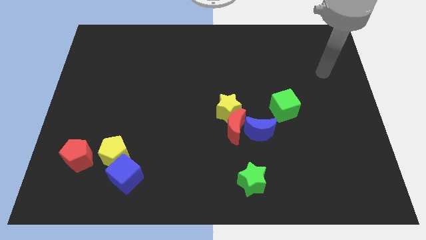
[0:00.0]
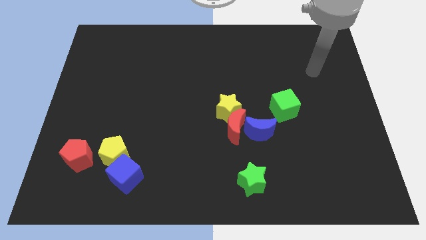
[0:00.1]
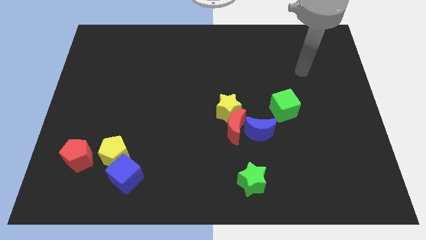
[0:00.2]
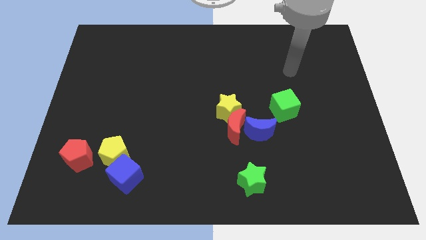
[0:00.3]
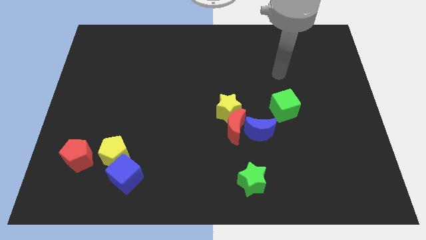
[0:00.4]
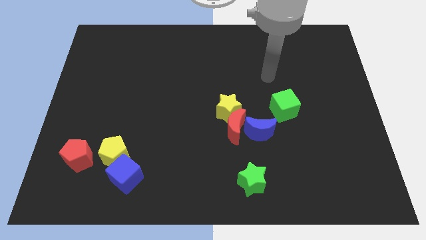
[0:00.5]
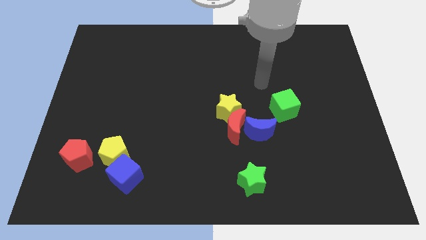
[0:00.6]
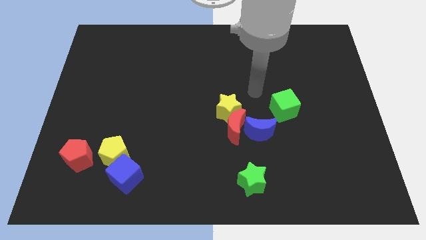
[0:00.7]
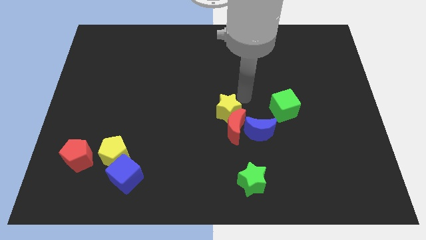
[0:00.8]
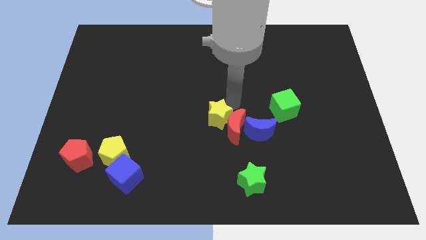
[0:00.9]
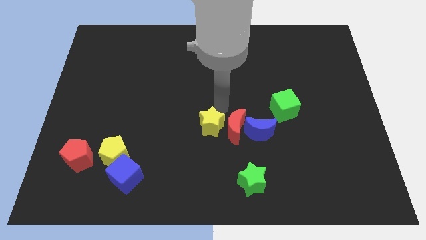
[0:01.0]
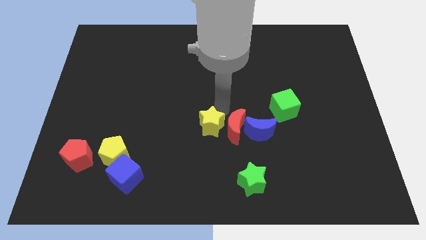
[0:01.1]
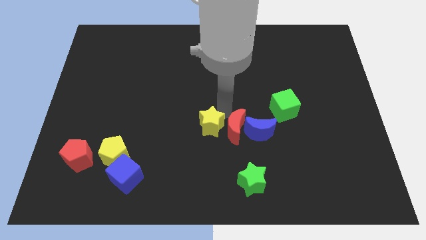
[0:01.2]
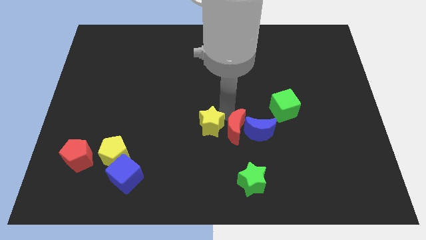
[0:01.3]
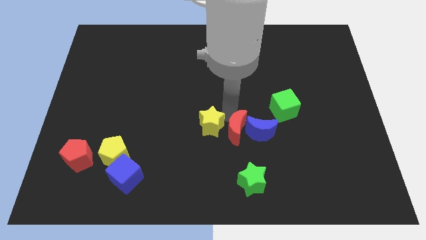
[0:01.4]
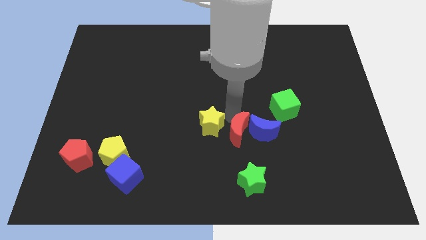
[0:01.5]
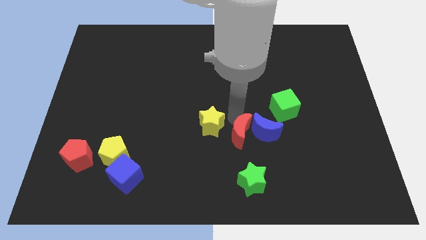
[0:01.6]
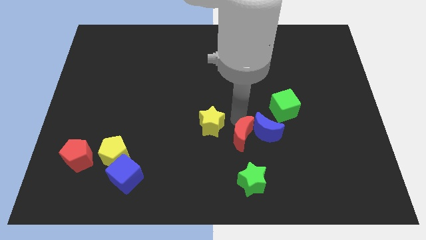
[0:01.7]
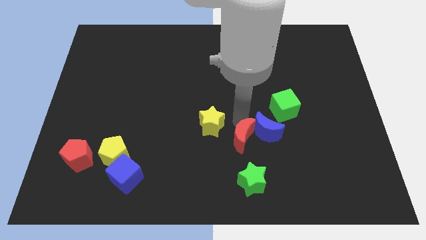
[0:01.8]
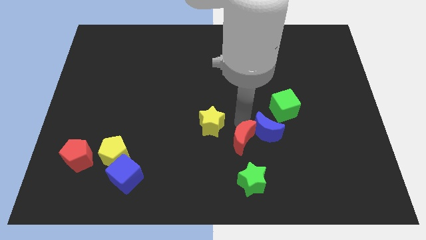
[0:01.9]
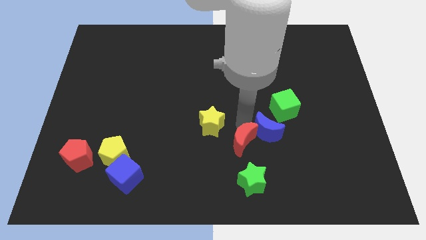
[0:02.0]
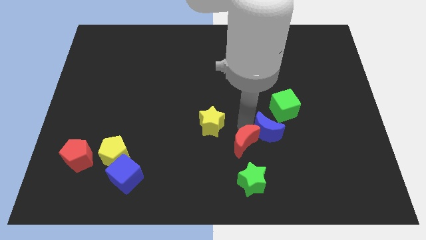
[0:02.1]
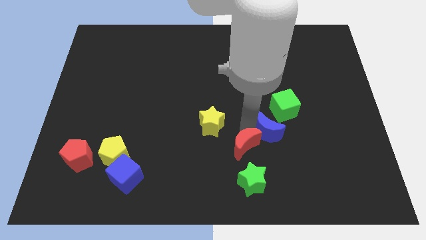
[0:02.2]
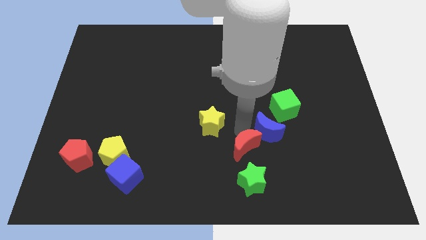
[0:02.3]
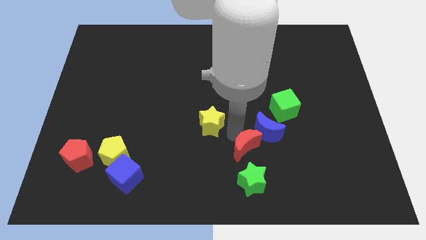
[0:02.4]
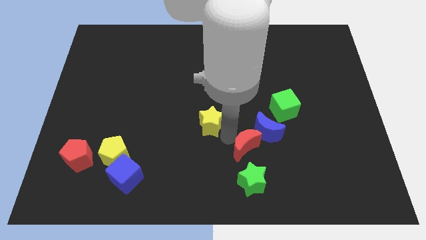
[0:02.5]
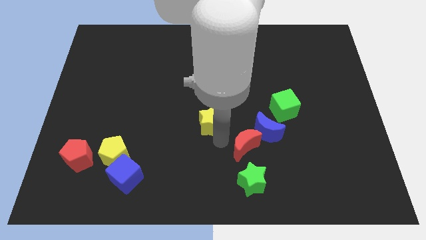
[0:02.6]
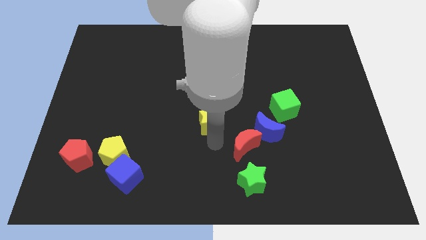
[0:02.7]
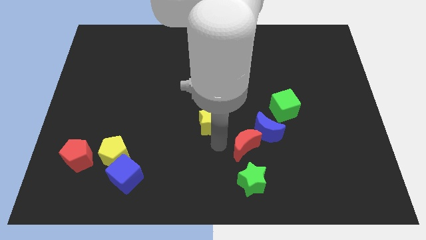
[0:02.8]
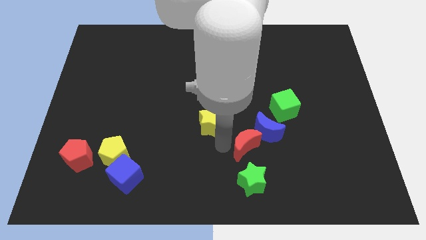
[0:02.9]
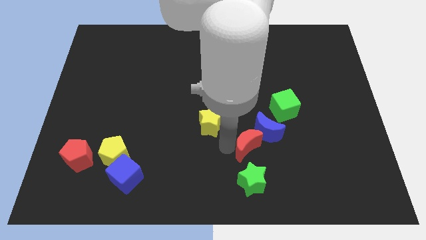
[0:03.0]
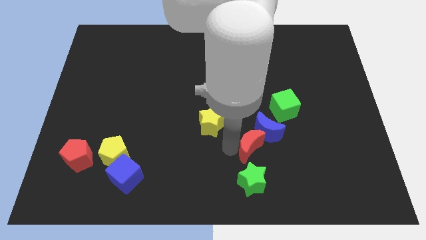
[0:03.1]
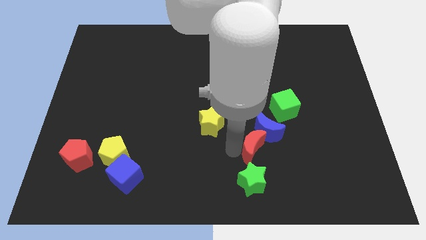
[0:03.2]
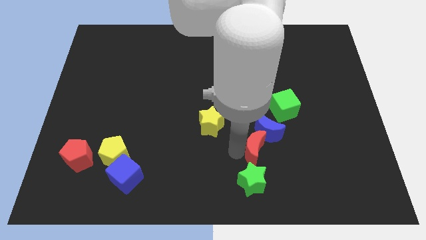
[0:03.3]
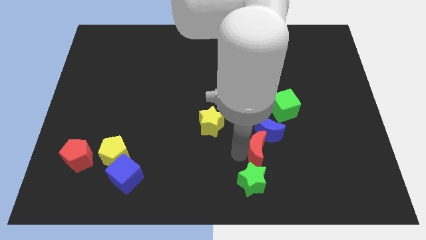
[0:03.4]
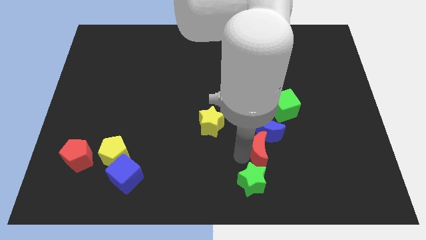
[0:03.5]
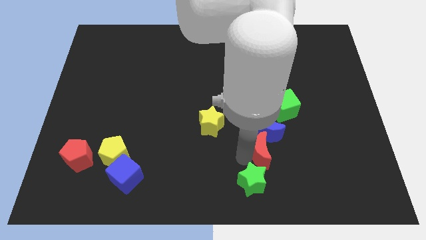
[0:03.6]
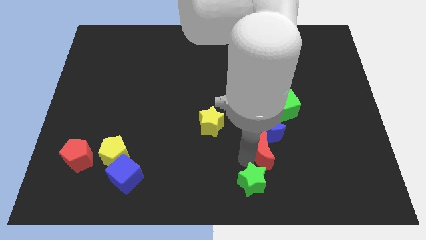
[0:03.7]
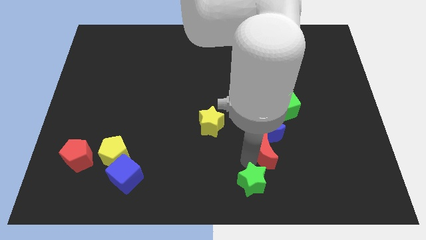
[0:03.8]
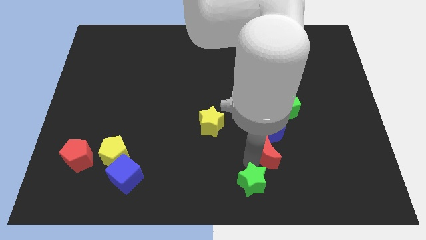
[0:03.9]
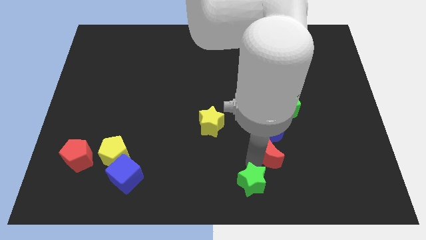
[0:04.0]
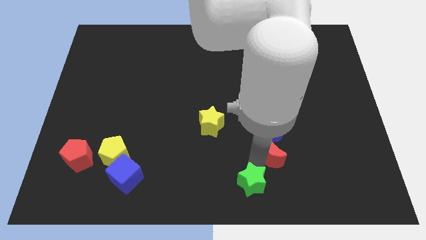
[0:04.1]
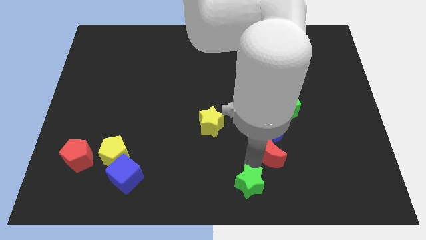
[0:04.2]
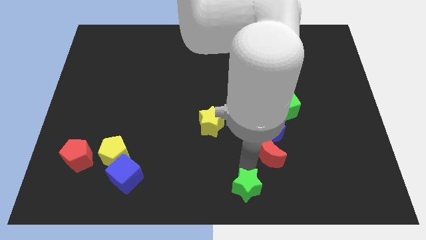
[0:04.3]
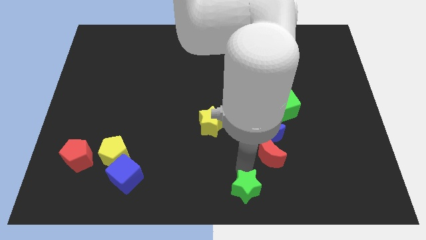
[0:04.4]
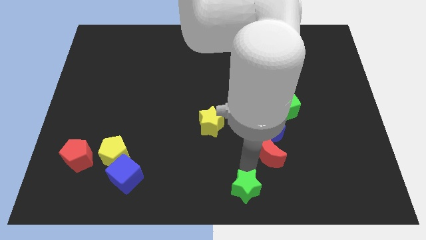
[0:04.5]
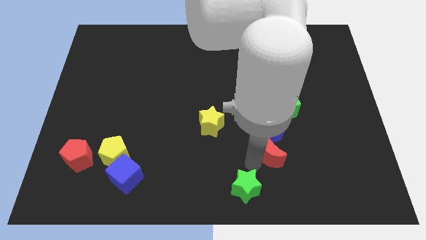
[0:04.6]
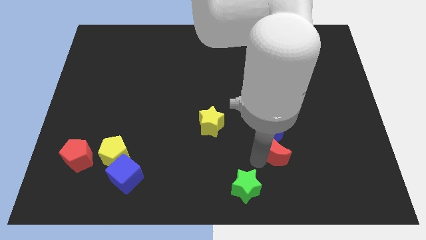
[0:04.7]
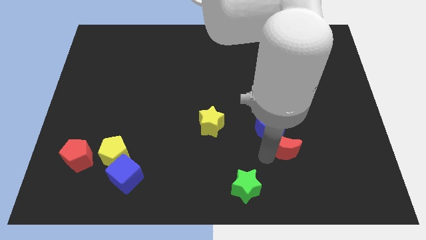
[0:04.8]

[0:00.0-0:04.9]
move the red moon to the right a little

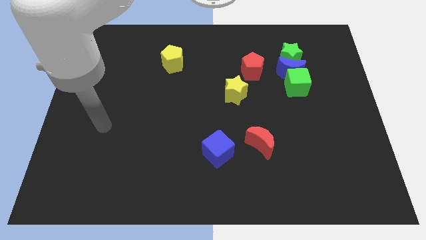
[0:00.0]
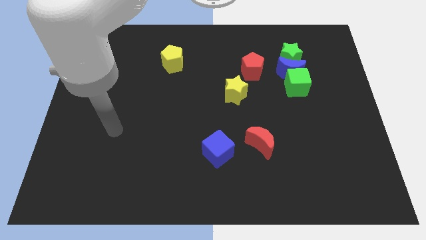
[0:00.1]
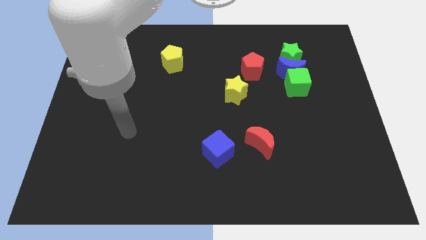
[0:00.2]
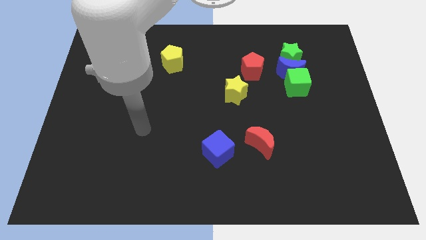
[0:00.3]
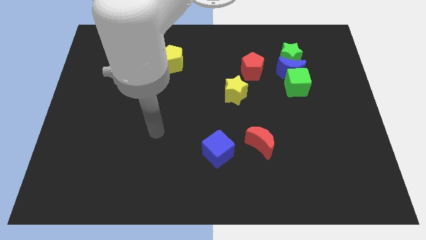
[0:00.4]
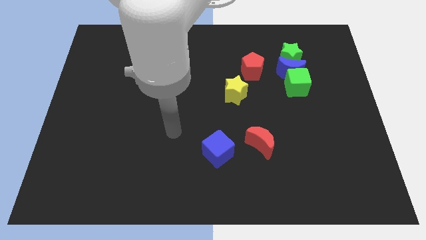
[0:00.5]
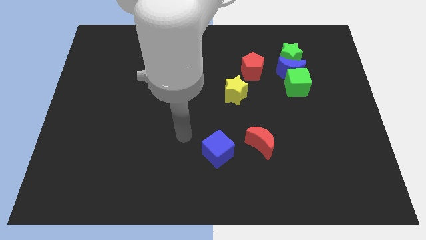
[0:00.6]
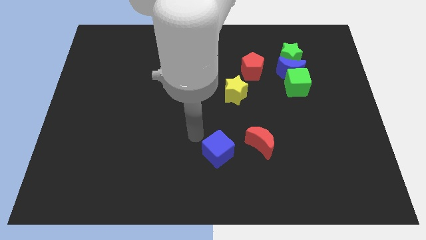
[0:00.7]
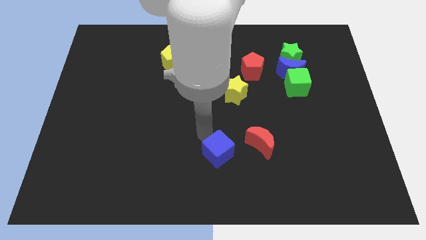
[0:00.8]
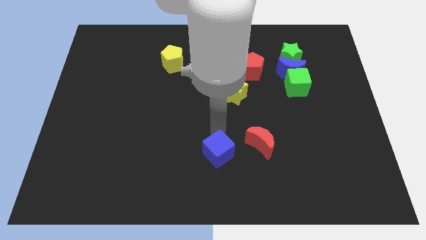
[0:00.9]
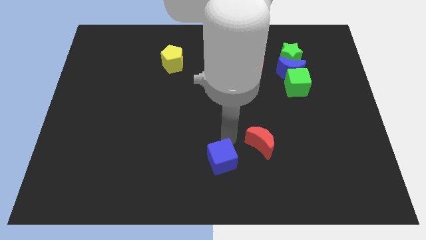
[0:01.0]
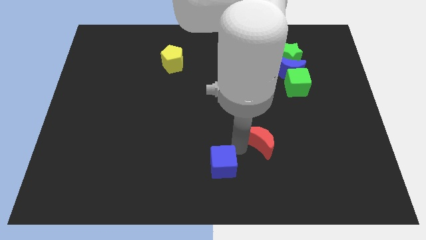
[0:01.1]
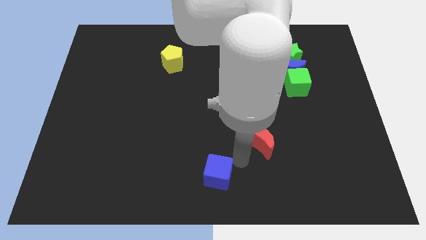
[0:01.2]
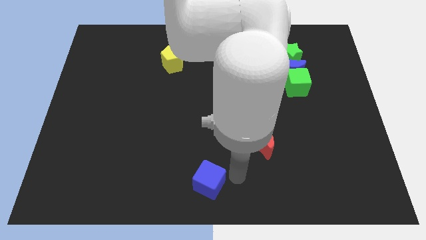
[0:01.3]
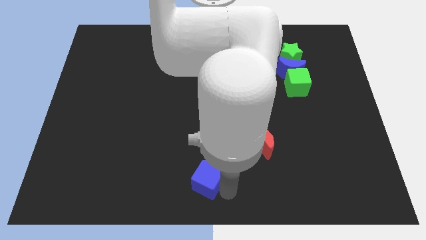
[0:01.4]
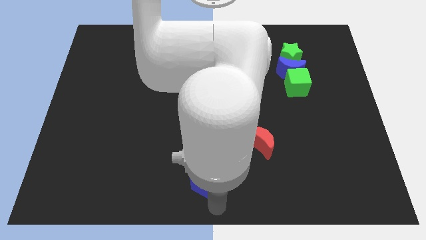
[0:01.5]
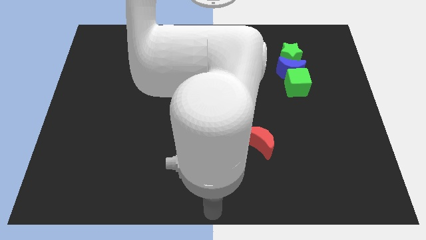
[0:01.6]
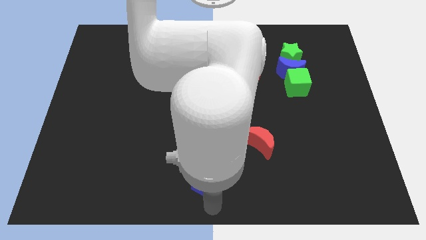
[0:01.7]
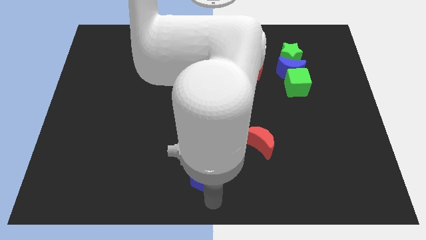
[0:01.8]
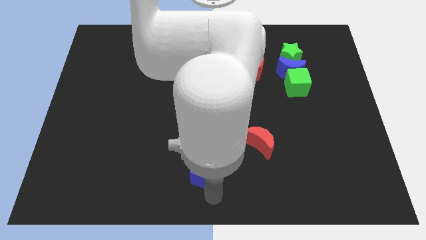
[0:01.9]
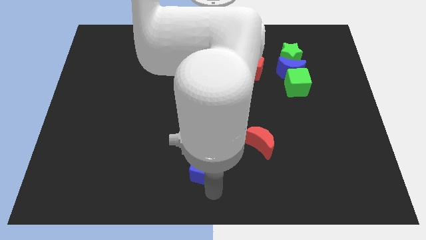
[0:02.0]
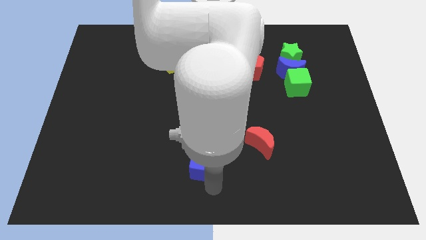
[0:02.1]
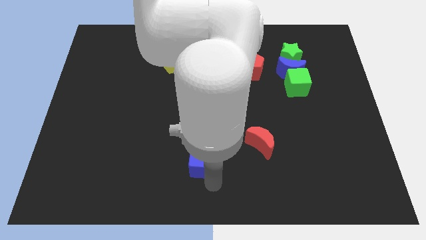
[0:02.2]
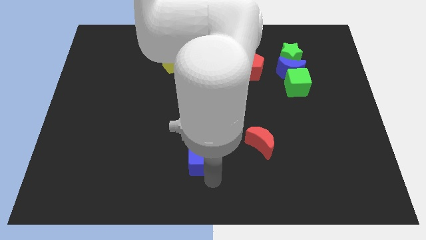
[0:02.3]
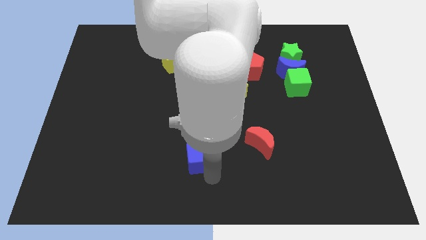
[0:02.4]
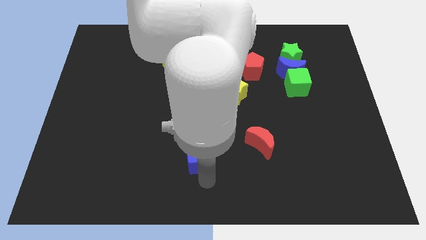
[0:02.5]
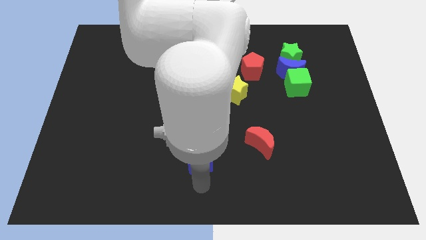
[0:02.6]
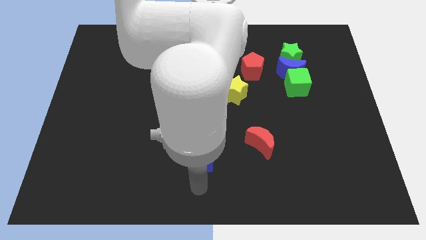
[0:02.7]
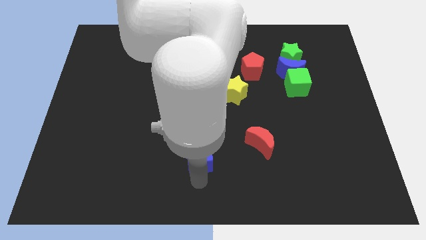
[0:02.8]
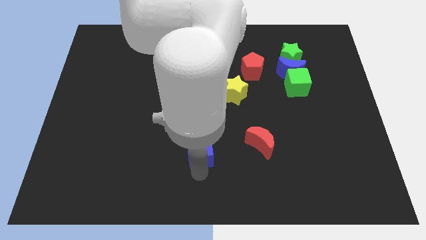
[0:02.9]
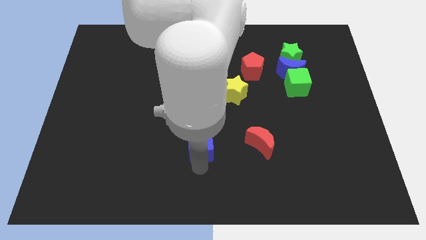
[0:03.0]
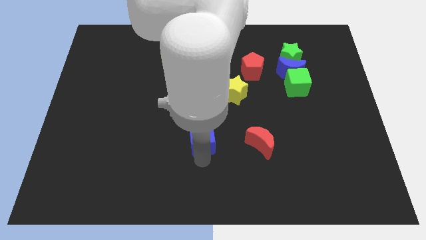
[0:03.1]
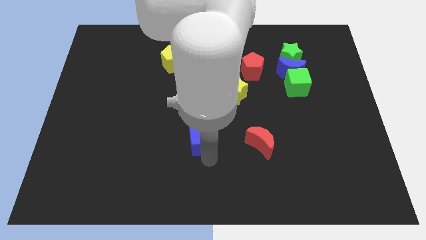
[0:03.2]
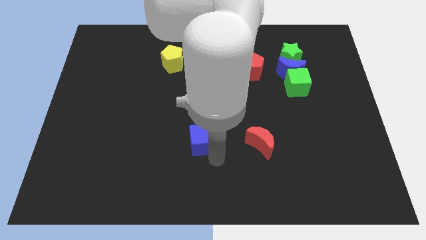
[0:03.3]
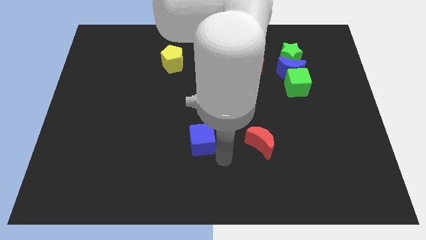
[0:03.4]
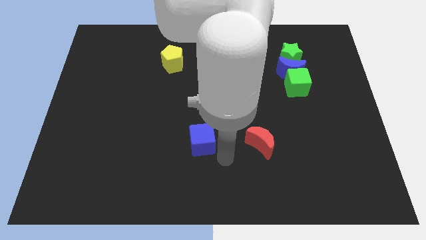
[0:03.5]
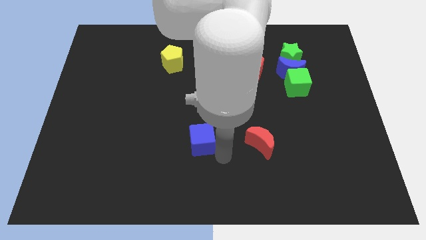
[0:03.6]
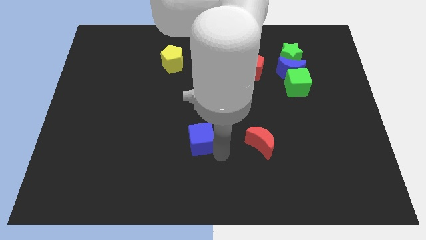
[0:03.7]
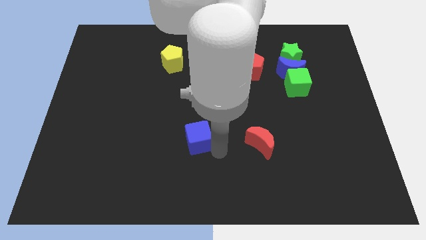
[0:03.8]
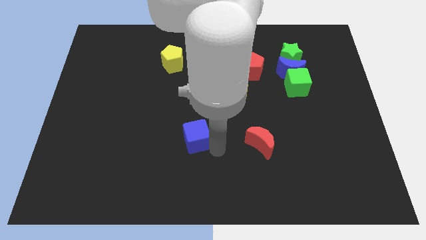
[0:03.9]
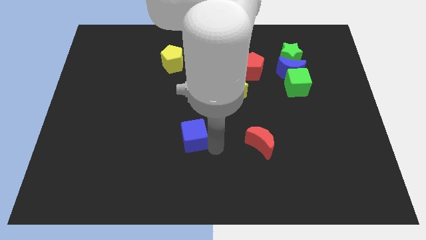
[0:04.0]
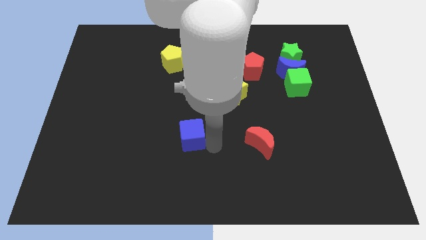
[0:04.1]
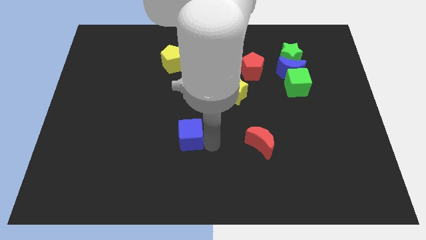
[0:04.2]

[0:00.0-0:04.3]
push the blue cube upwards and to the left diagonally somewhat
